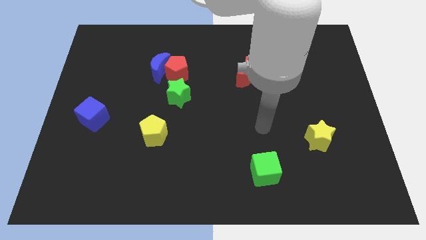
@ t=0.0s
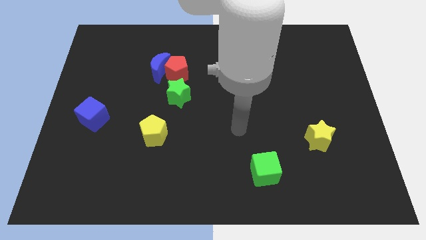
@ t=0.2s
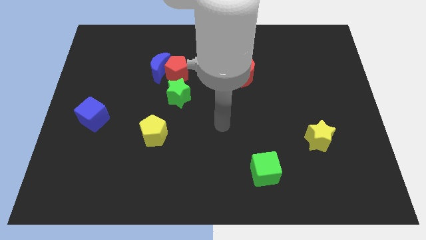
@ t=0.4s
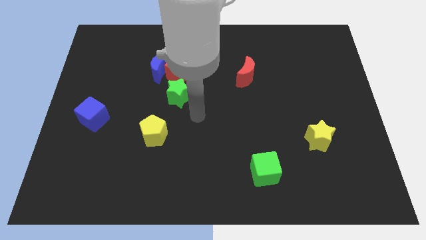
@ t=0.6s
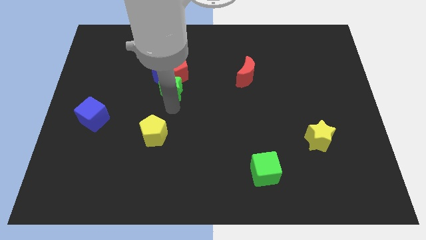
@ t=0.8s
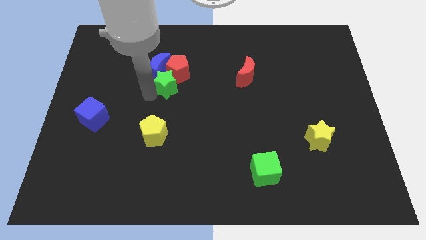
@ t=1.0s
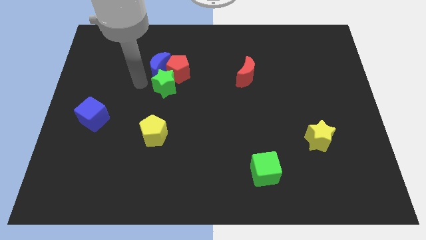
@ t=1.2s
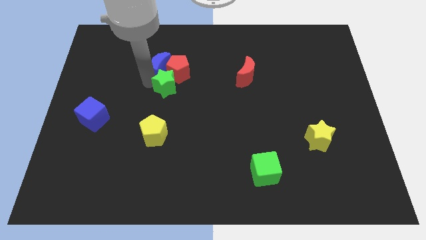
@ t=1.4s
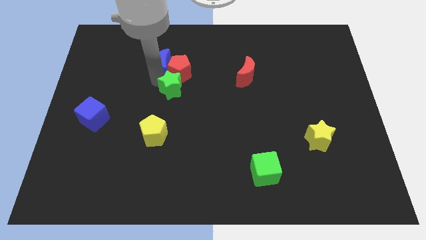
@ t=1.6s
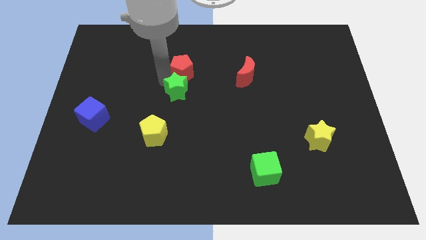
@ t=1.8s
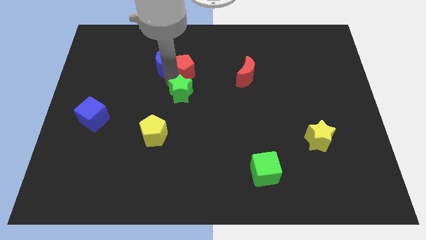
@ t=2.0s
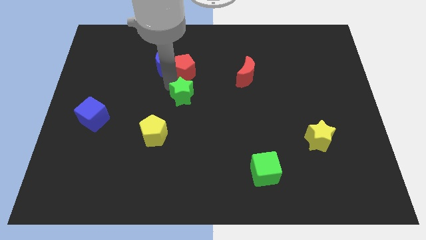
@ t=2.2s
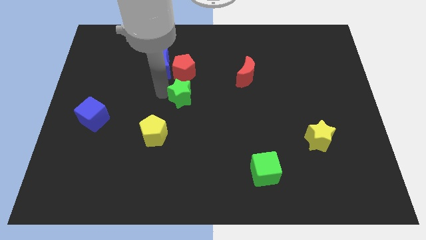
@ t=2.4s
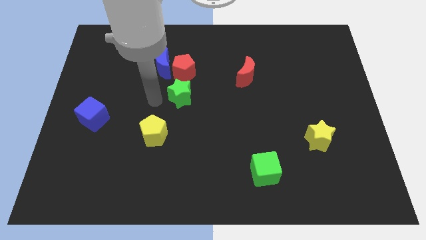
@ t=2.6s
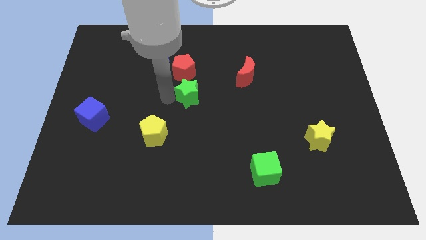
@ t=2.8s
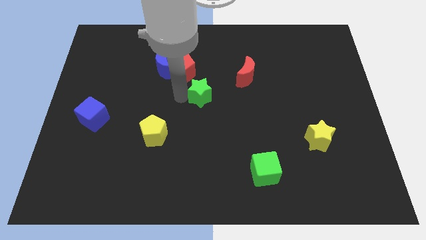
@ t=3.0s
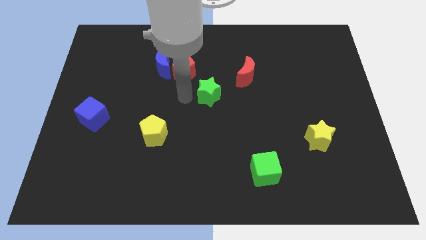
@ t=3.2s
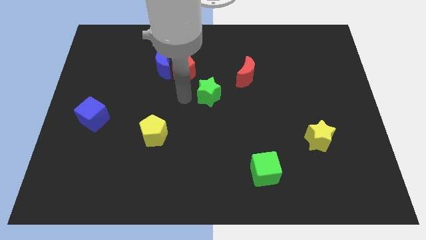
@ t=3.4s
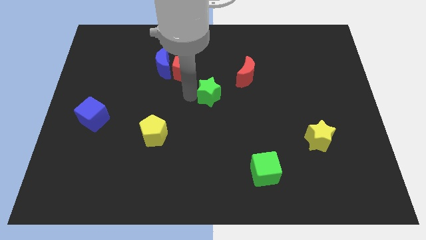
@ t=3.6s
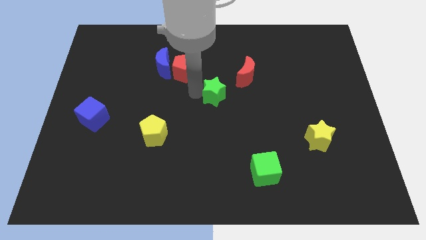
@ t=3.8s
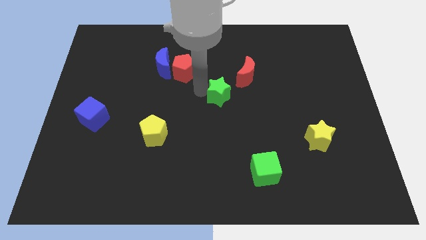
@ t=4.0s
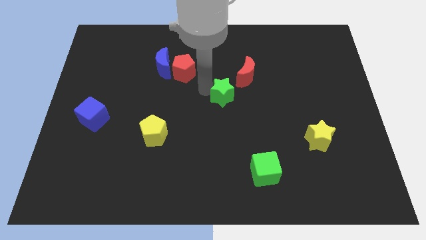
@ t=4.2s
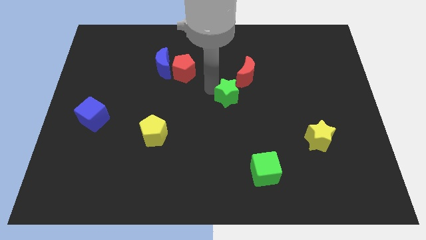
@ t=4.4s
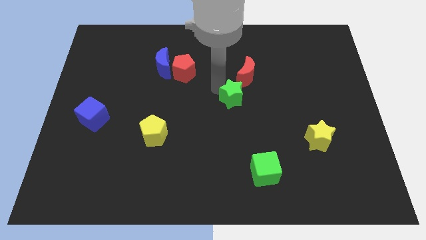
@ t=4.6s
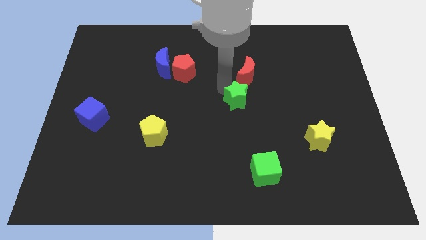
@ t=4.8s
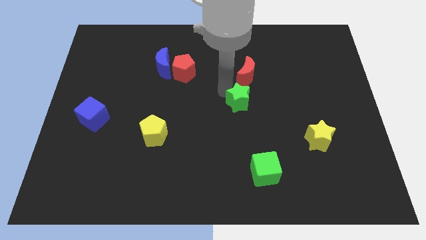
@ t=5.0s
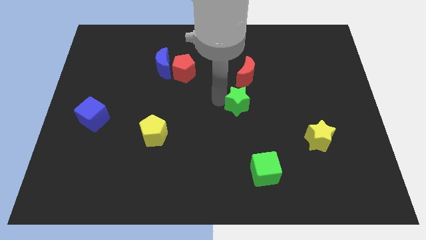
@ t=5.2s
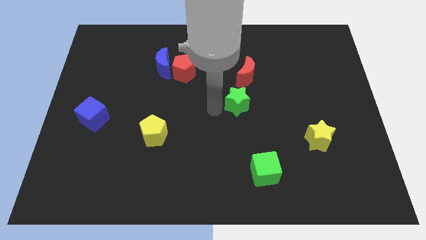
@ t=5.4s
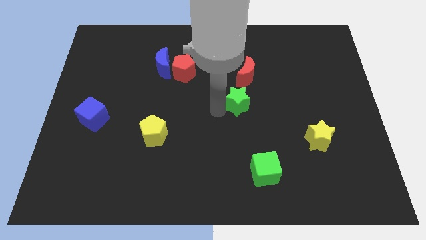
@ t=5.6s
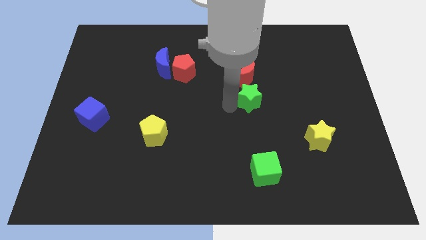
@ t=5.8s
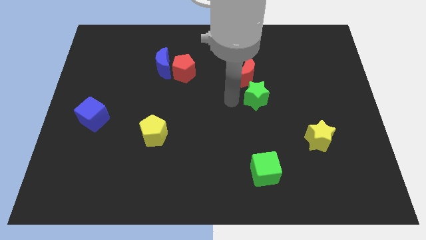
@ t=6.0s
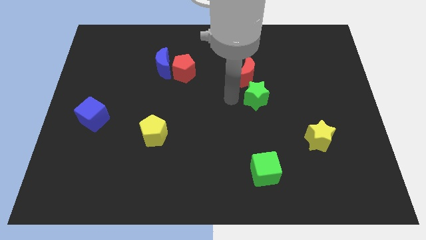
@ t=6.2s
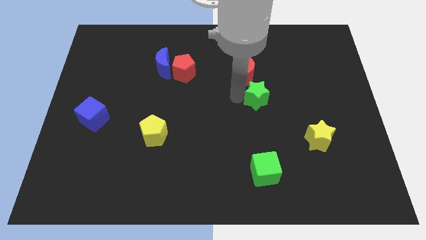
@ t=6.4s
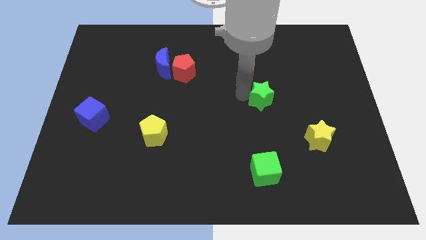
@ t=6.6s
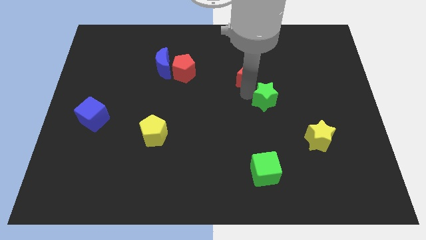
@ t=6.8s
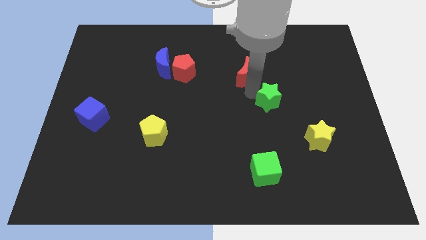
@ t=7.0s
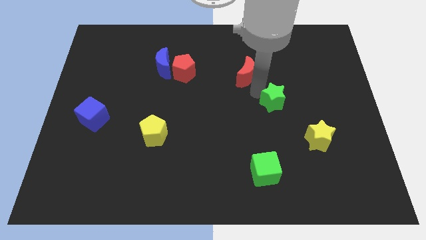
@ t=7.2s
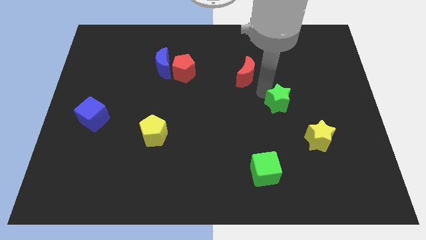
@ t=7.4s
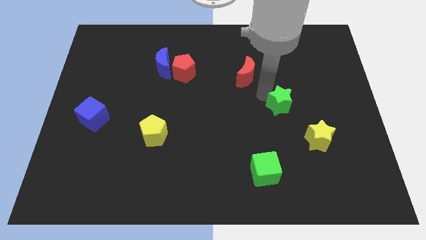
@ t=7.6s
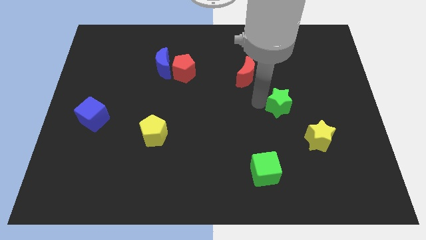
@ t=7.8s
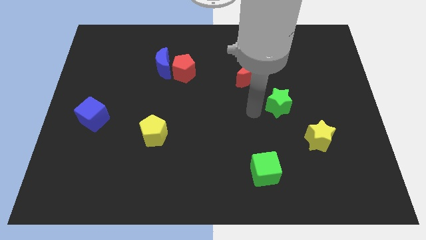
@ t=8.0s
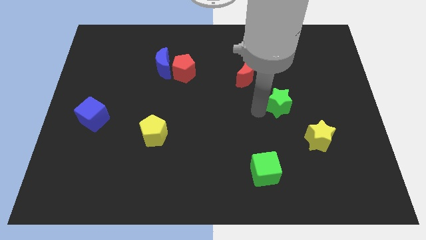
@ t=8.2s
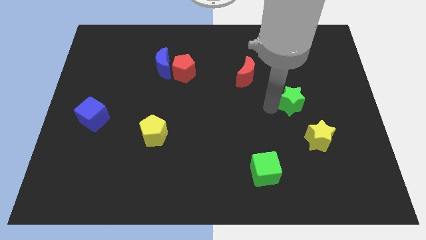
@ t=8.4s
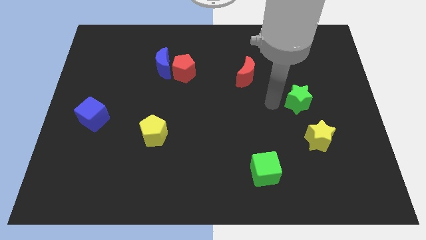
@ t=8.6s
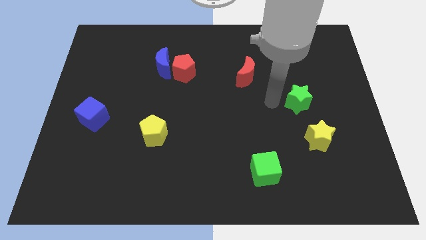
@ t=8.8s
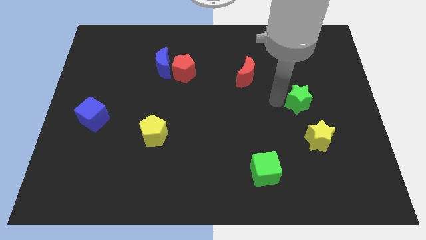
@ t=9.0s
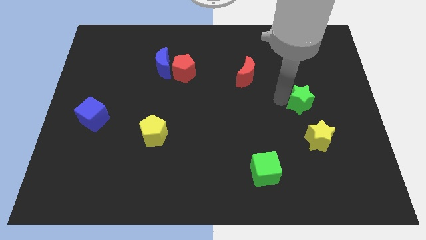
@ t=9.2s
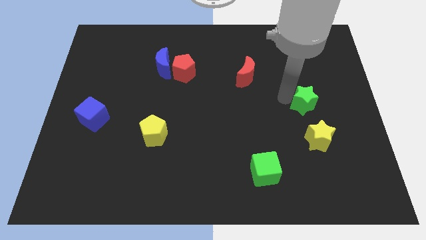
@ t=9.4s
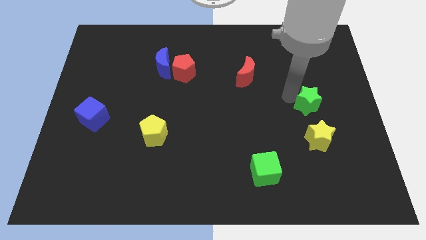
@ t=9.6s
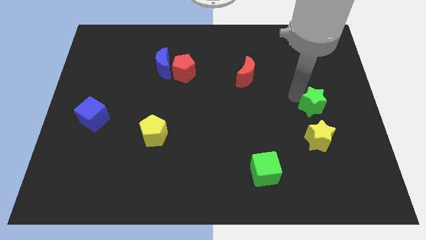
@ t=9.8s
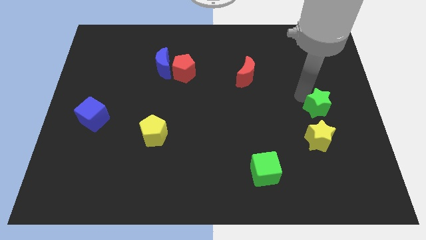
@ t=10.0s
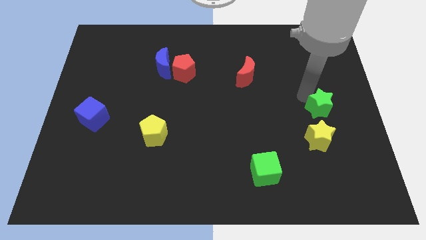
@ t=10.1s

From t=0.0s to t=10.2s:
slide the green star to the right side of the board
